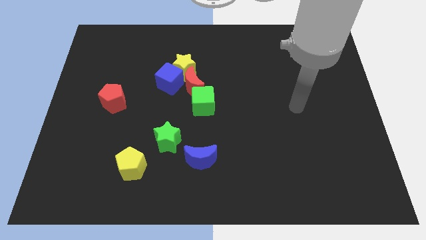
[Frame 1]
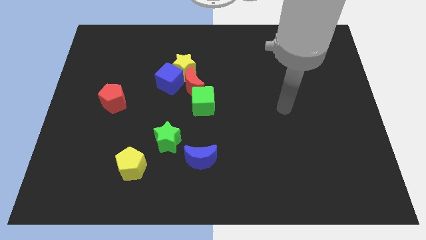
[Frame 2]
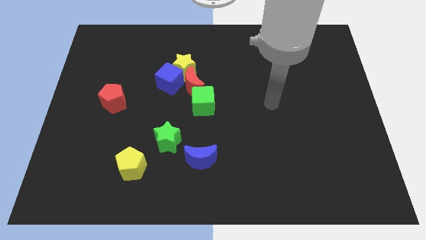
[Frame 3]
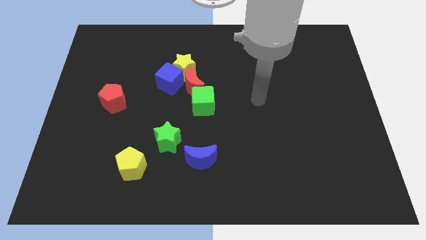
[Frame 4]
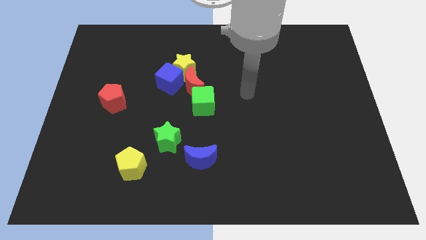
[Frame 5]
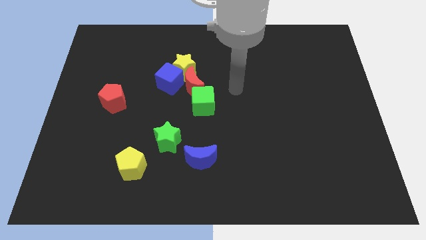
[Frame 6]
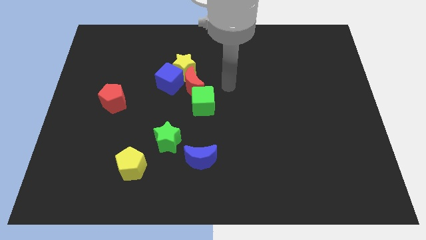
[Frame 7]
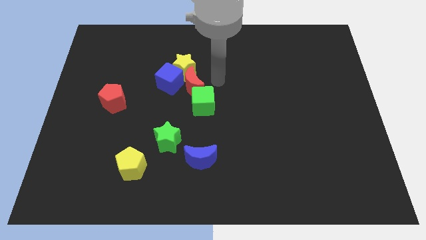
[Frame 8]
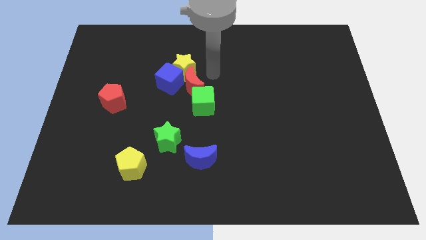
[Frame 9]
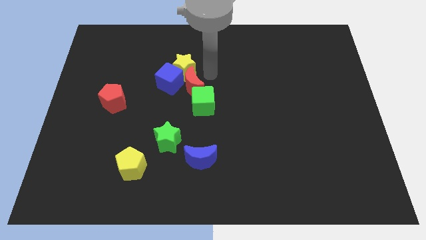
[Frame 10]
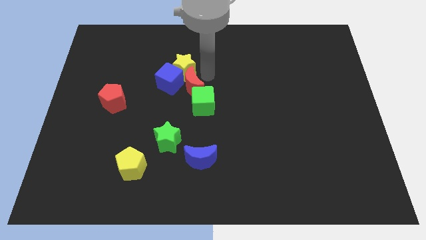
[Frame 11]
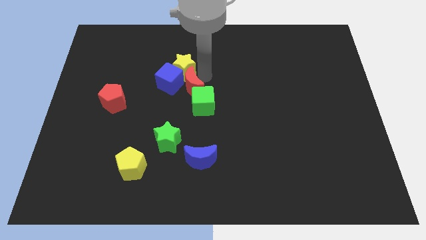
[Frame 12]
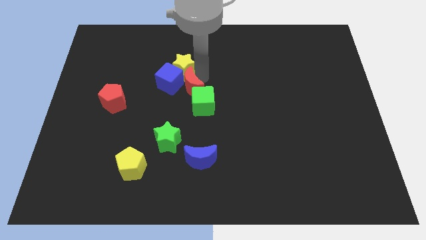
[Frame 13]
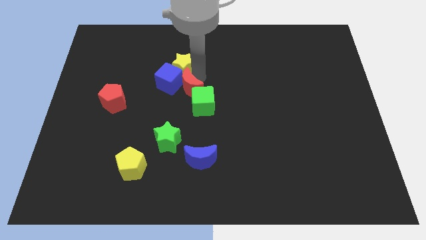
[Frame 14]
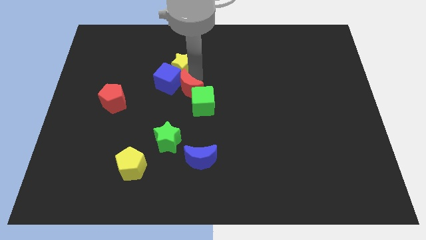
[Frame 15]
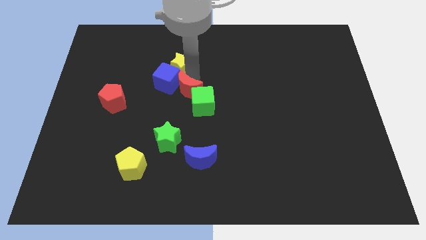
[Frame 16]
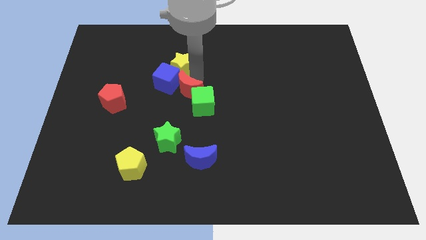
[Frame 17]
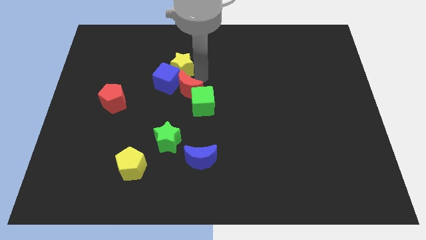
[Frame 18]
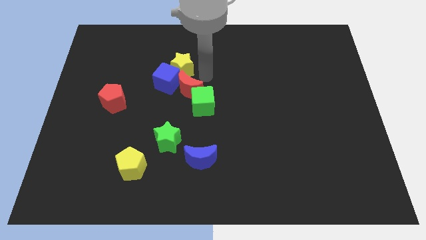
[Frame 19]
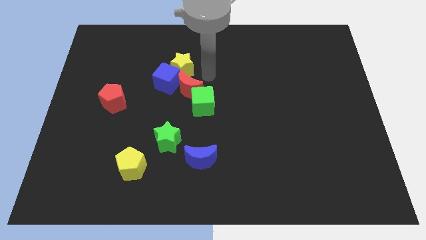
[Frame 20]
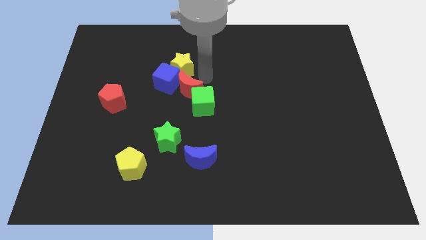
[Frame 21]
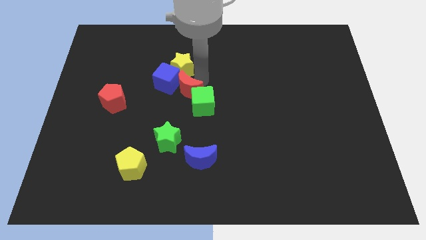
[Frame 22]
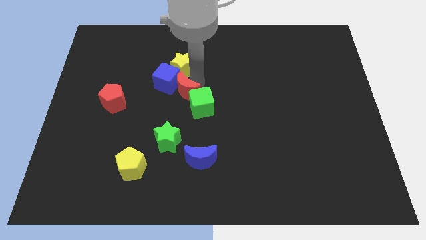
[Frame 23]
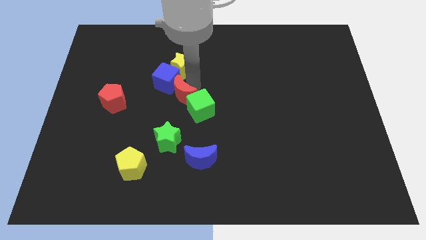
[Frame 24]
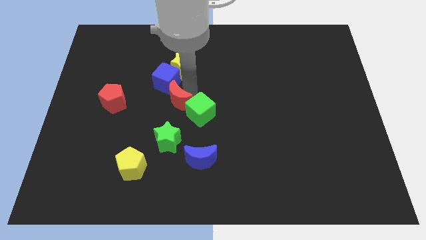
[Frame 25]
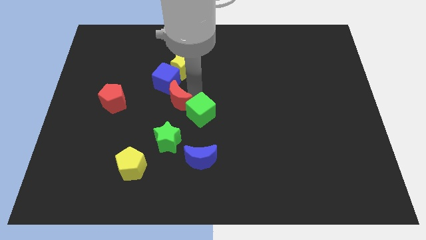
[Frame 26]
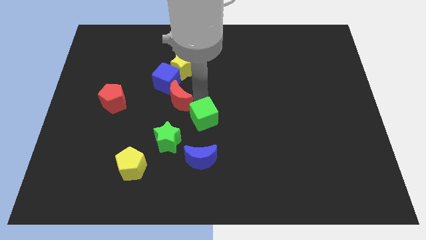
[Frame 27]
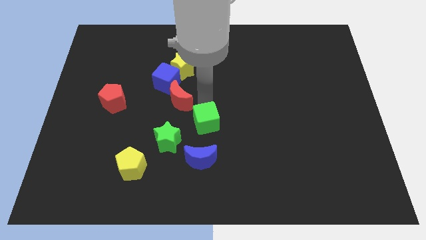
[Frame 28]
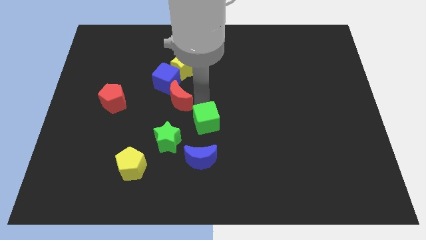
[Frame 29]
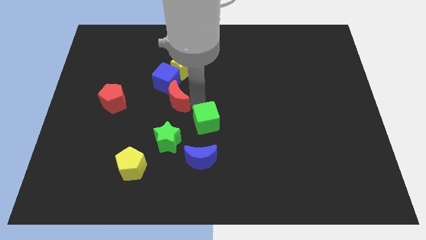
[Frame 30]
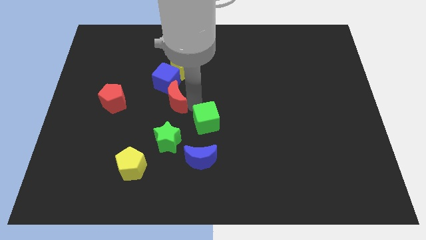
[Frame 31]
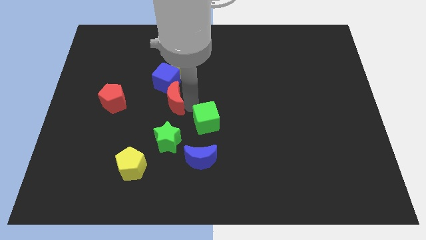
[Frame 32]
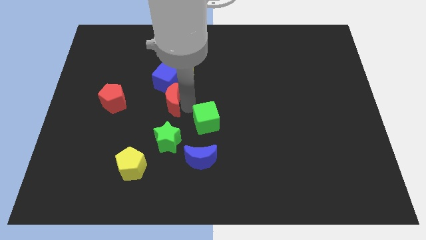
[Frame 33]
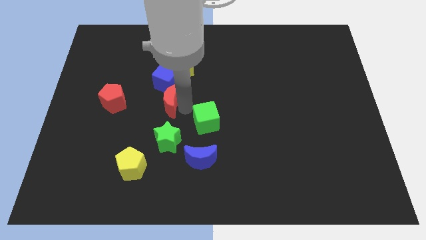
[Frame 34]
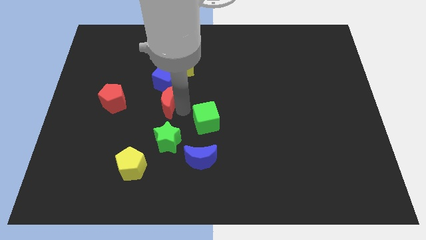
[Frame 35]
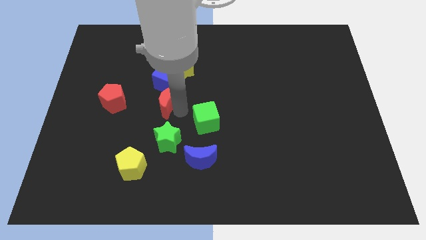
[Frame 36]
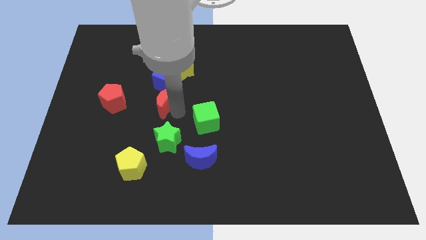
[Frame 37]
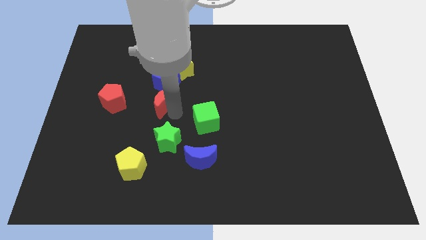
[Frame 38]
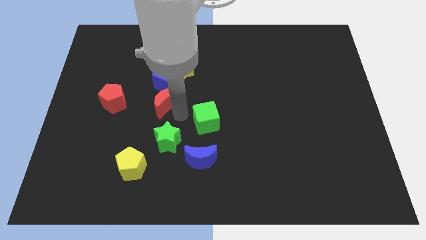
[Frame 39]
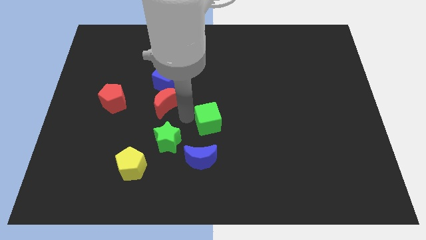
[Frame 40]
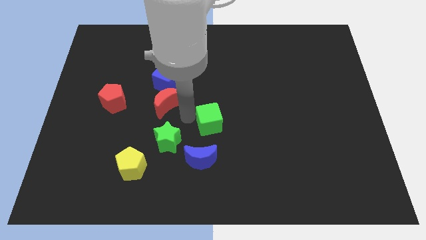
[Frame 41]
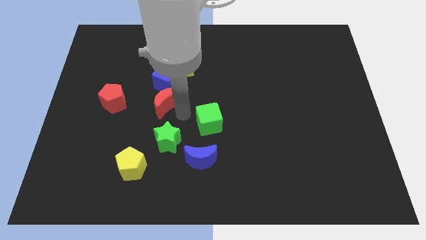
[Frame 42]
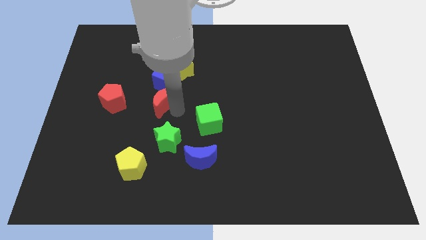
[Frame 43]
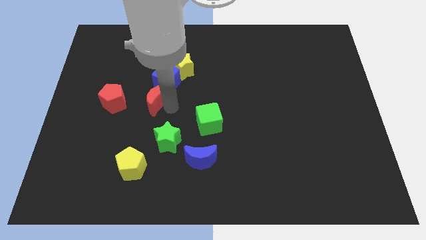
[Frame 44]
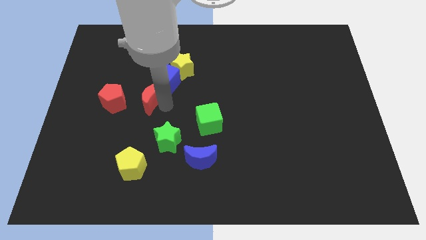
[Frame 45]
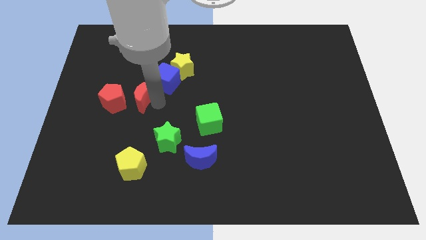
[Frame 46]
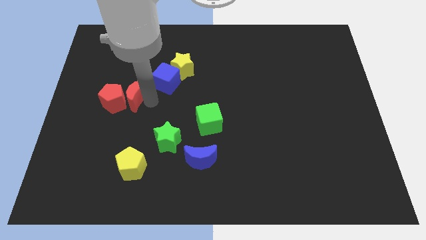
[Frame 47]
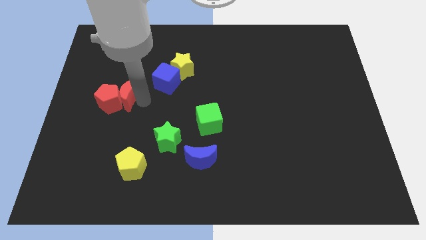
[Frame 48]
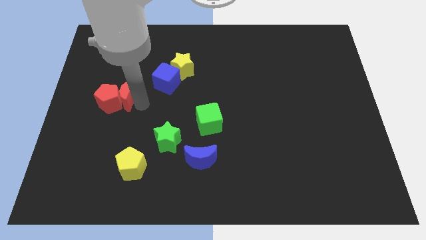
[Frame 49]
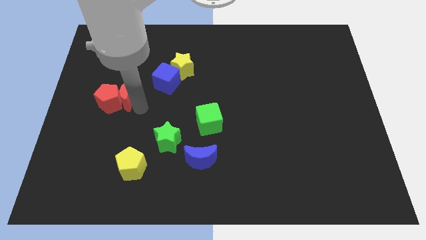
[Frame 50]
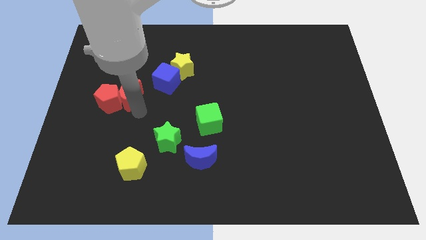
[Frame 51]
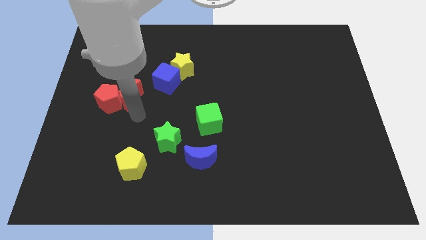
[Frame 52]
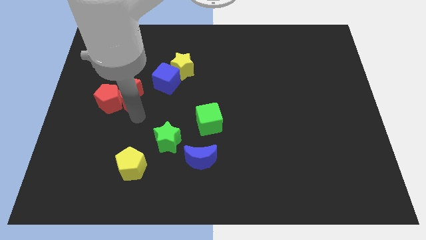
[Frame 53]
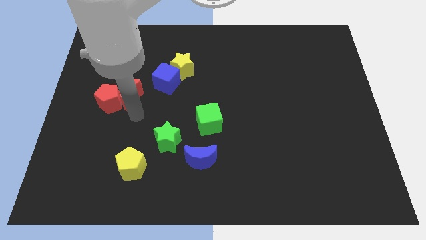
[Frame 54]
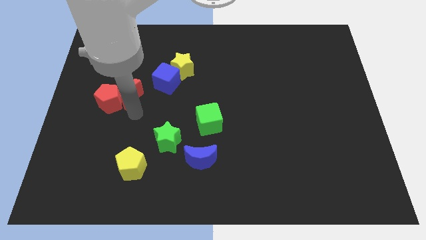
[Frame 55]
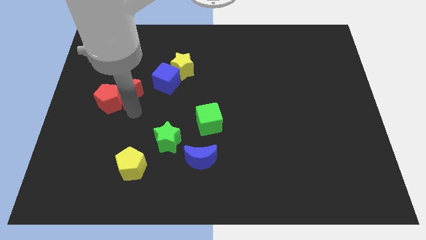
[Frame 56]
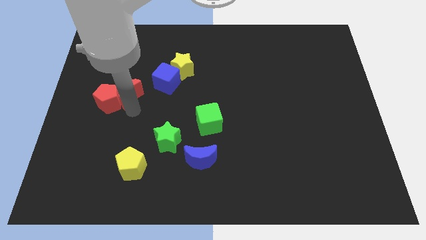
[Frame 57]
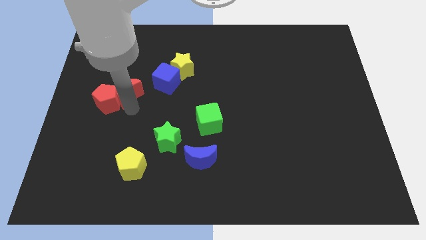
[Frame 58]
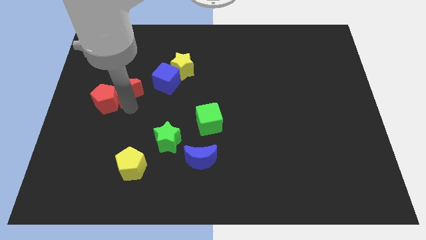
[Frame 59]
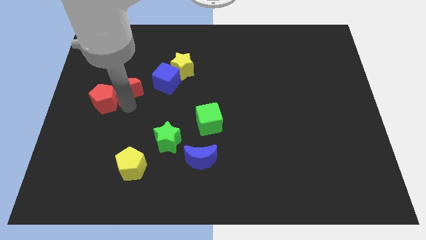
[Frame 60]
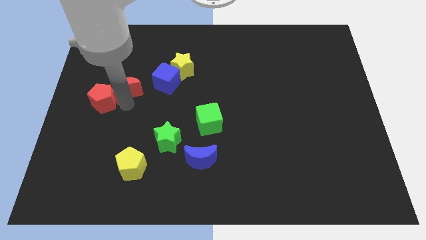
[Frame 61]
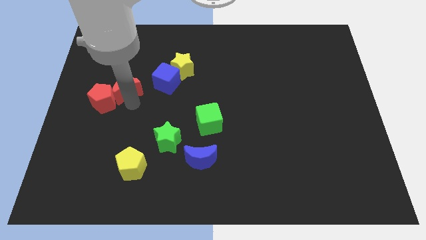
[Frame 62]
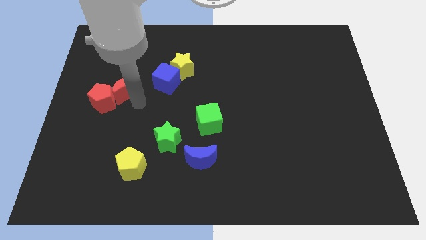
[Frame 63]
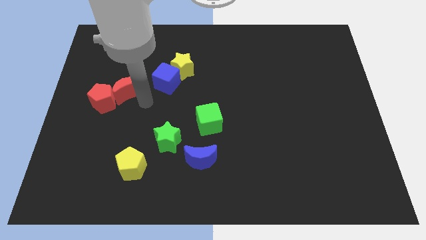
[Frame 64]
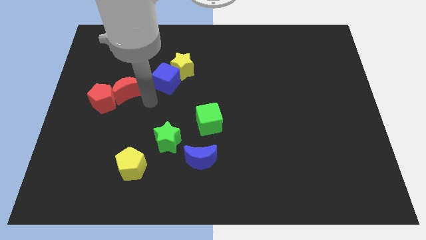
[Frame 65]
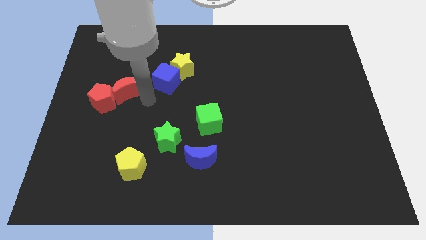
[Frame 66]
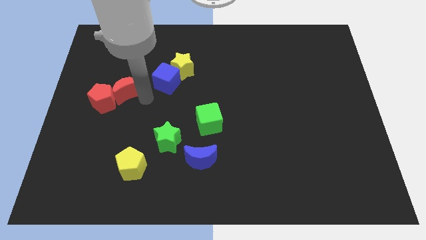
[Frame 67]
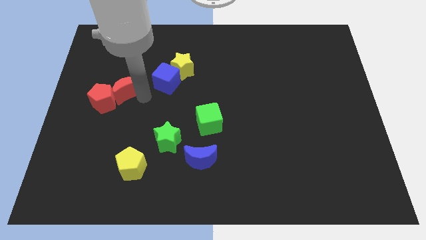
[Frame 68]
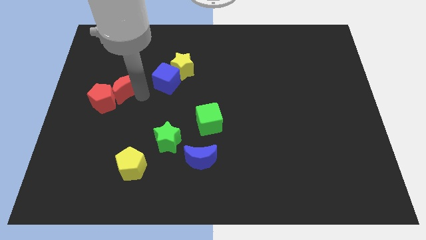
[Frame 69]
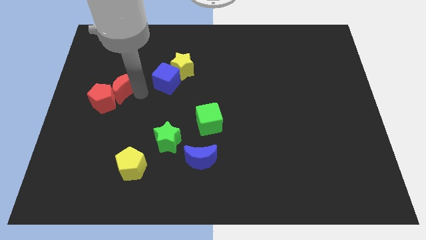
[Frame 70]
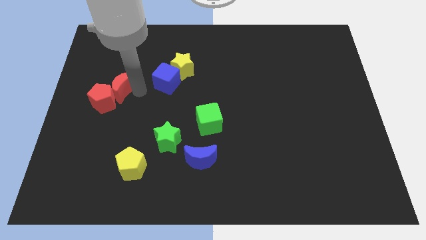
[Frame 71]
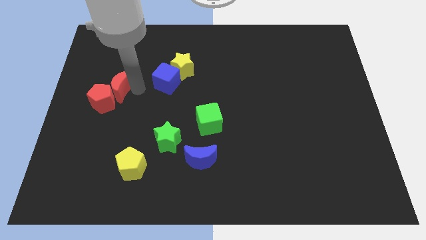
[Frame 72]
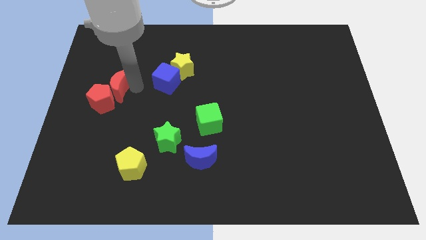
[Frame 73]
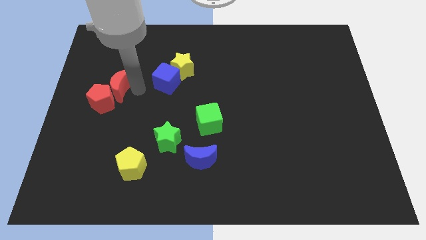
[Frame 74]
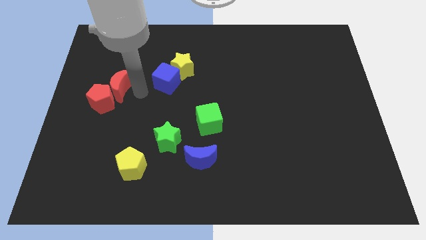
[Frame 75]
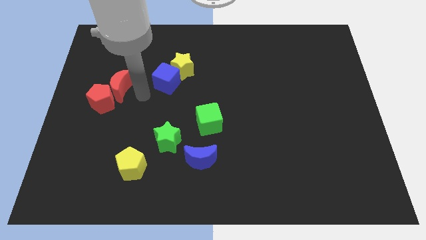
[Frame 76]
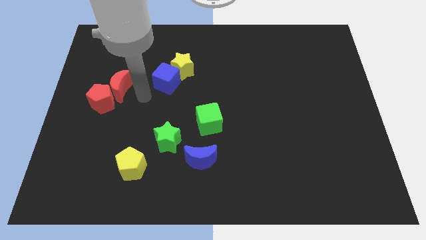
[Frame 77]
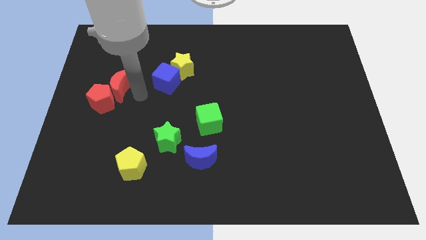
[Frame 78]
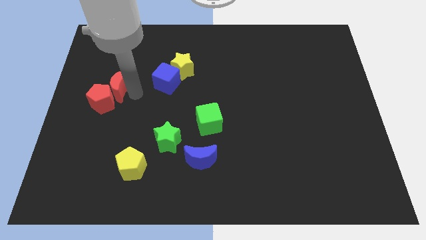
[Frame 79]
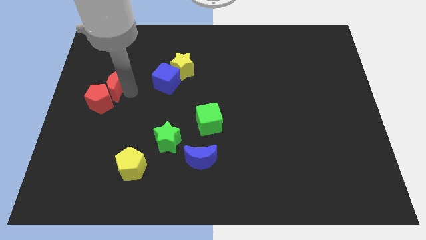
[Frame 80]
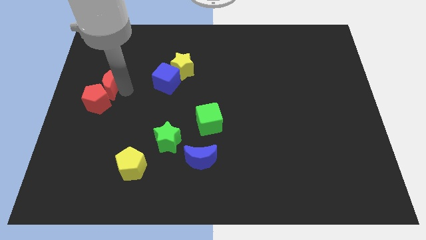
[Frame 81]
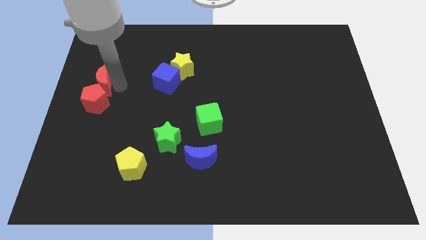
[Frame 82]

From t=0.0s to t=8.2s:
put the red moon to the left side
